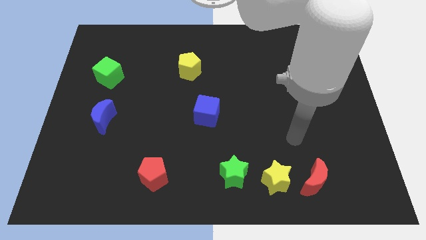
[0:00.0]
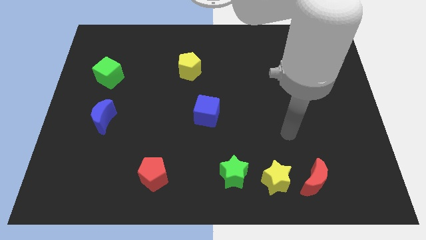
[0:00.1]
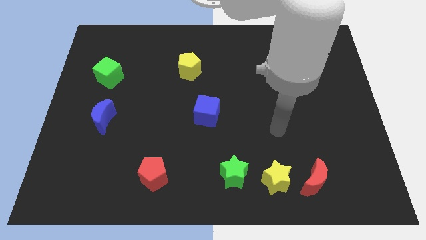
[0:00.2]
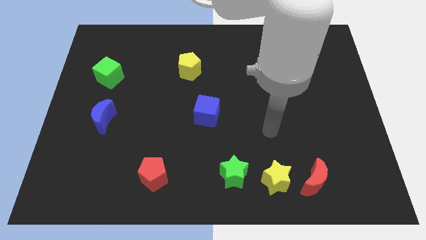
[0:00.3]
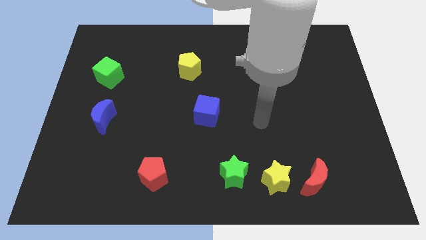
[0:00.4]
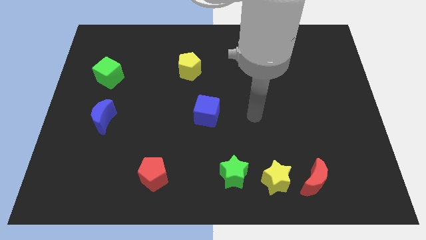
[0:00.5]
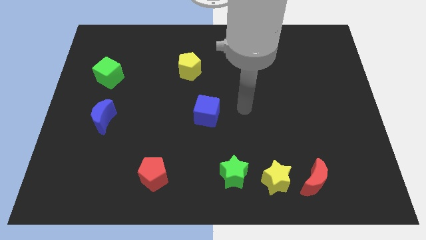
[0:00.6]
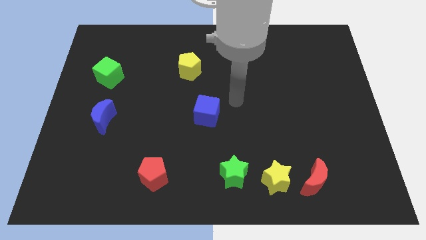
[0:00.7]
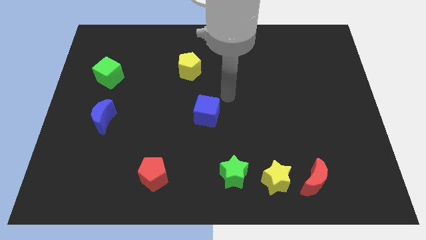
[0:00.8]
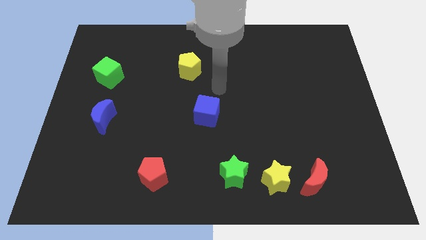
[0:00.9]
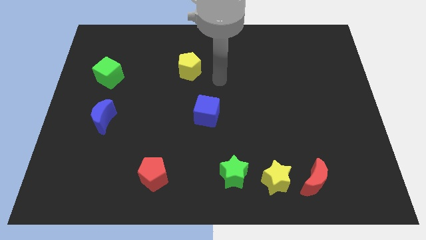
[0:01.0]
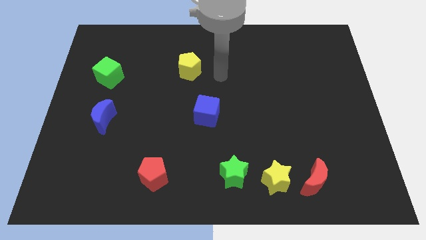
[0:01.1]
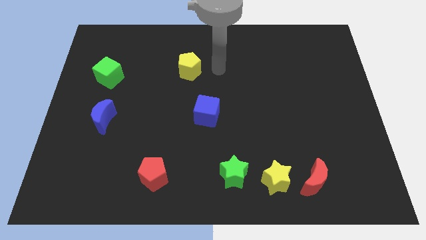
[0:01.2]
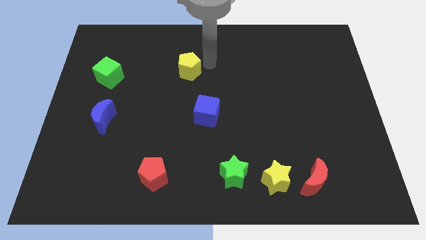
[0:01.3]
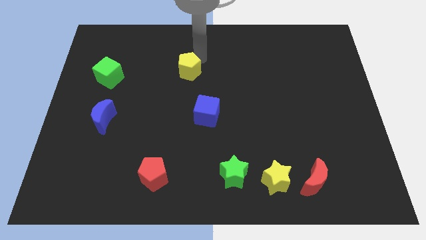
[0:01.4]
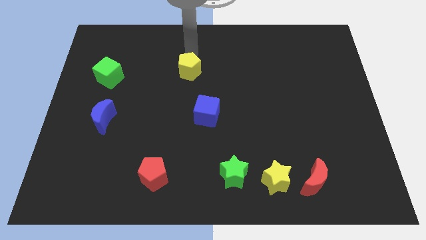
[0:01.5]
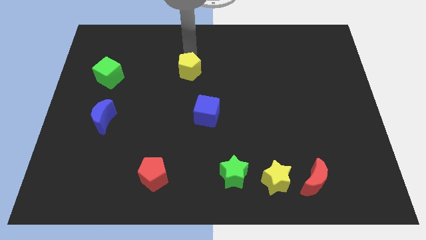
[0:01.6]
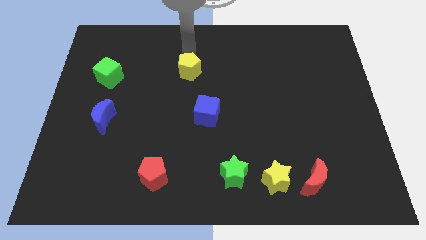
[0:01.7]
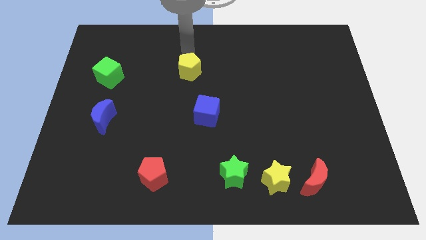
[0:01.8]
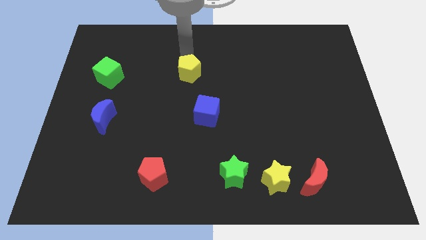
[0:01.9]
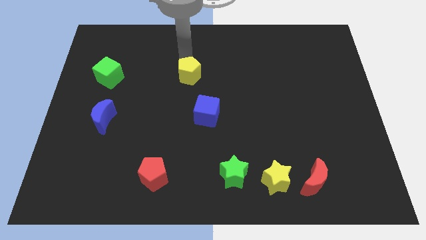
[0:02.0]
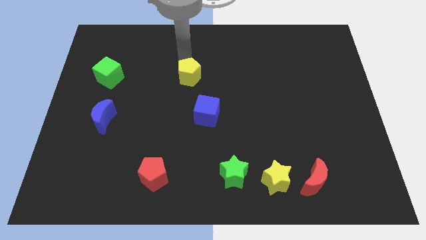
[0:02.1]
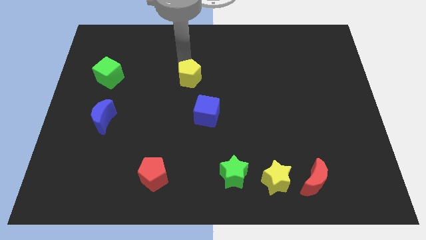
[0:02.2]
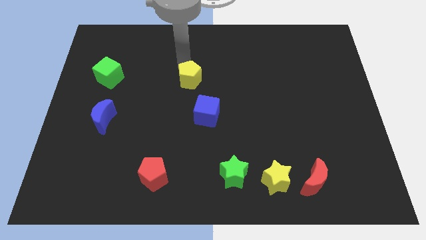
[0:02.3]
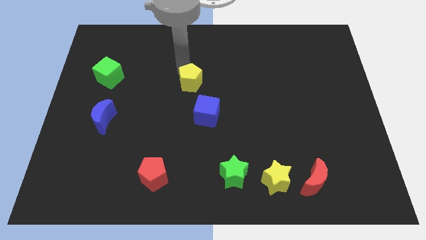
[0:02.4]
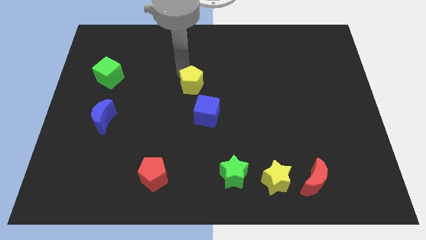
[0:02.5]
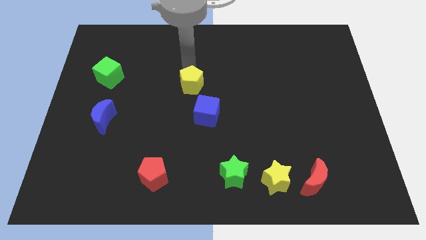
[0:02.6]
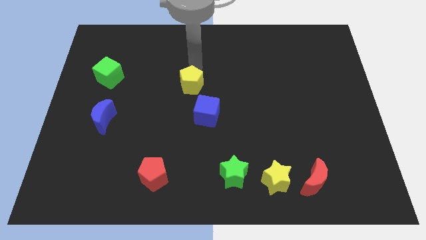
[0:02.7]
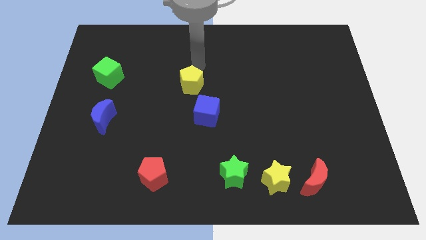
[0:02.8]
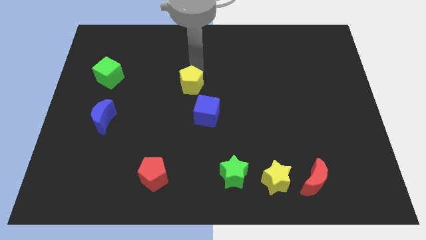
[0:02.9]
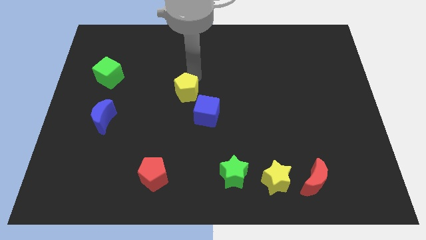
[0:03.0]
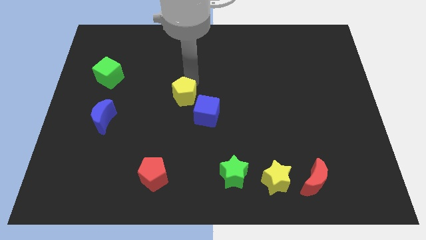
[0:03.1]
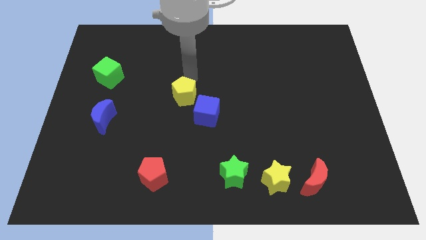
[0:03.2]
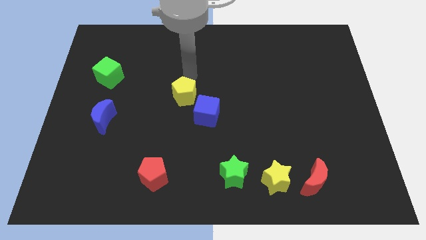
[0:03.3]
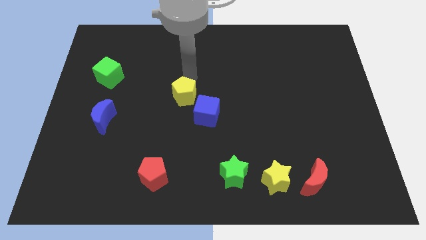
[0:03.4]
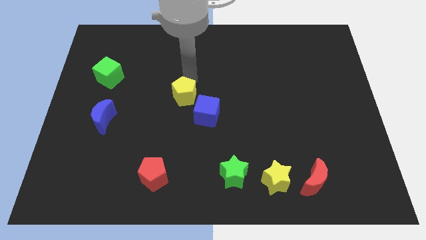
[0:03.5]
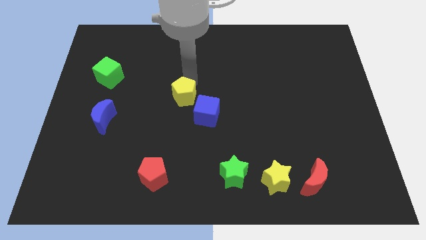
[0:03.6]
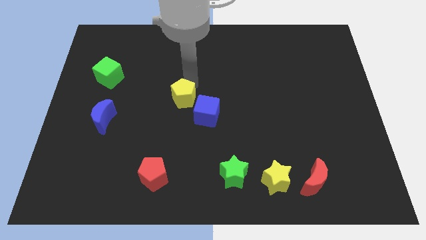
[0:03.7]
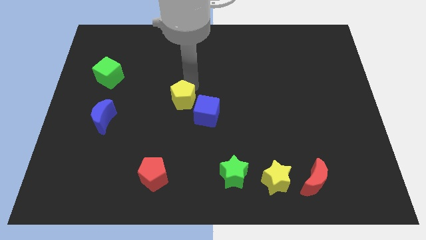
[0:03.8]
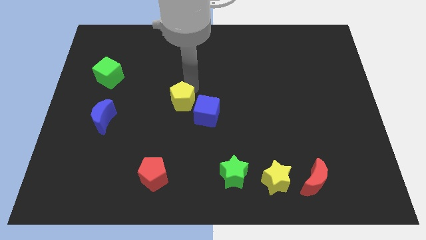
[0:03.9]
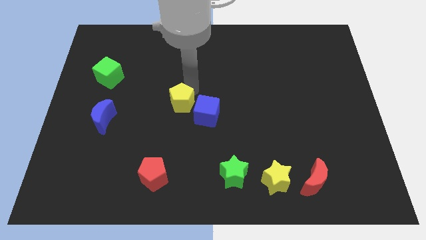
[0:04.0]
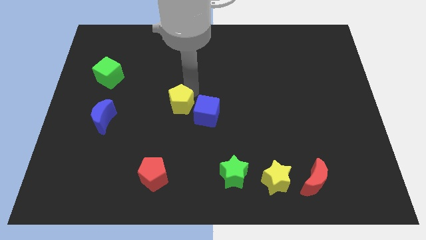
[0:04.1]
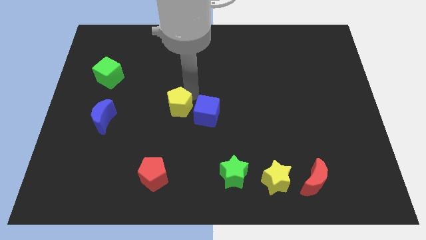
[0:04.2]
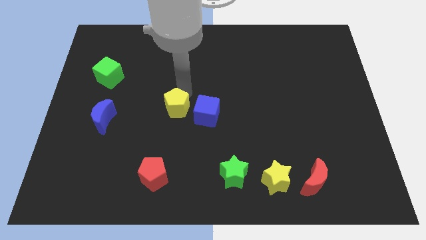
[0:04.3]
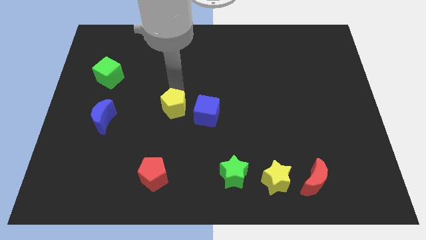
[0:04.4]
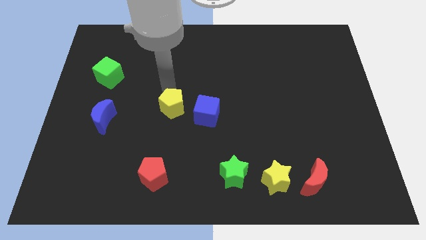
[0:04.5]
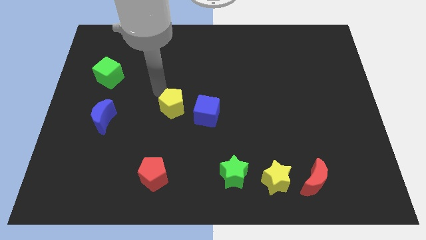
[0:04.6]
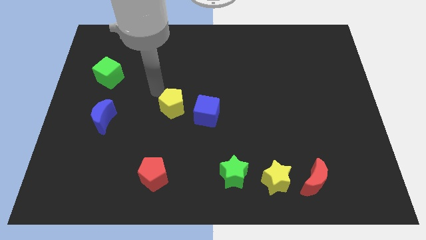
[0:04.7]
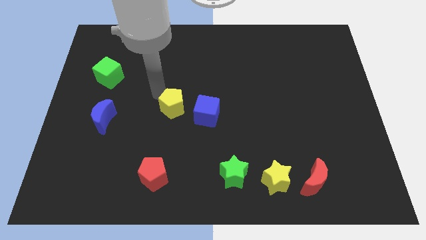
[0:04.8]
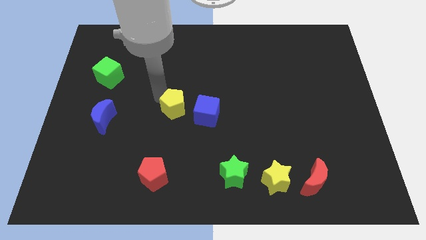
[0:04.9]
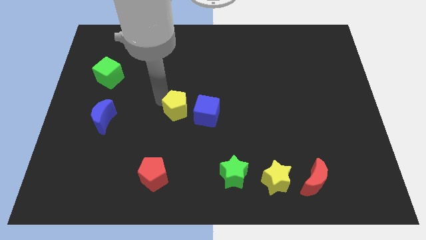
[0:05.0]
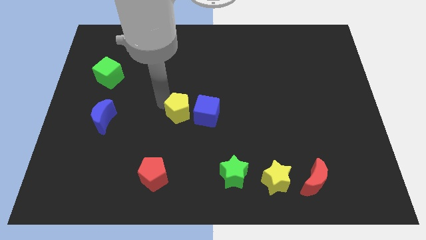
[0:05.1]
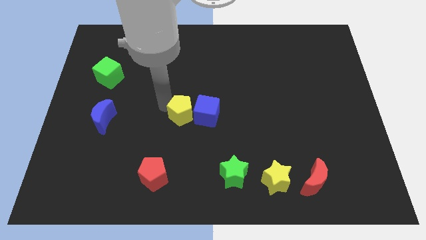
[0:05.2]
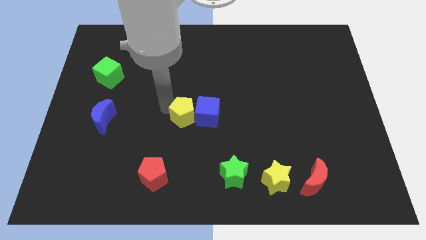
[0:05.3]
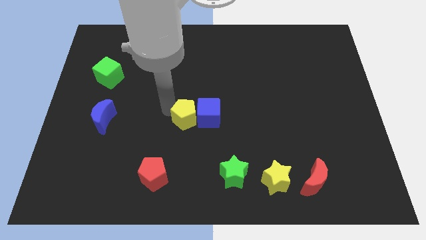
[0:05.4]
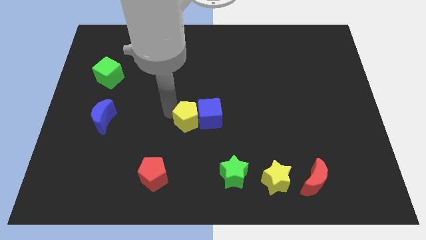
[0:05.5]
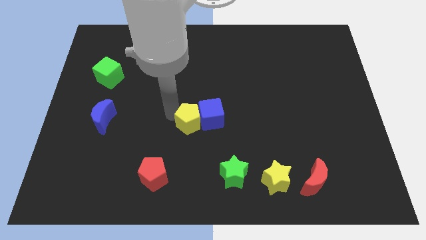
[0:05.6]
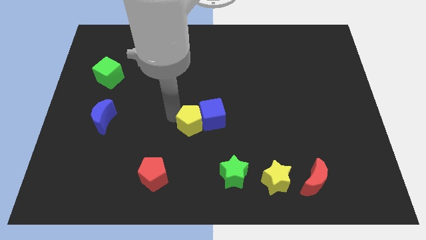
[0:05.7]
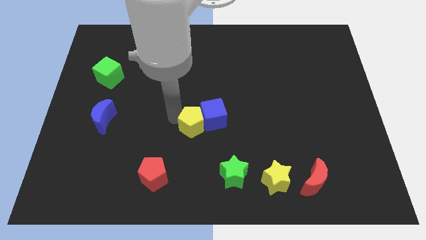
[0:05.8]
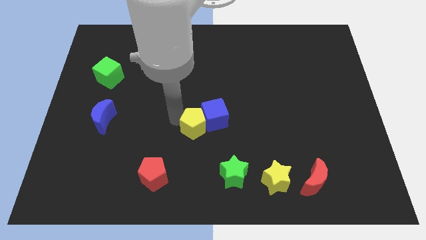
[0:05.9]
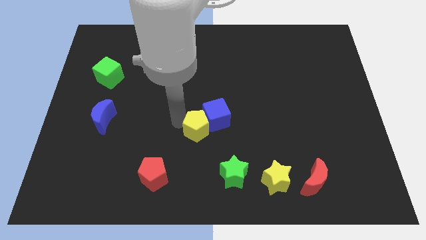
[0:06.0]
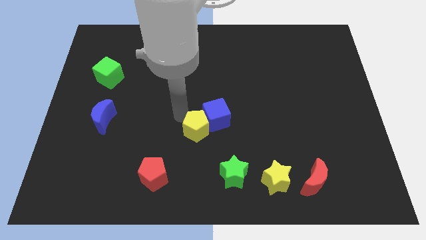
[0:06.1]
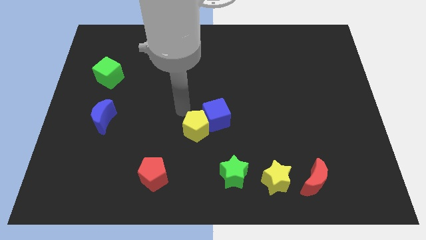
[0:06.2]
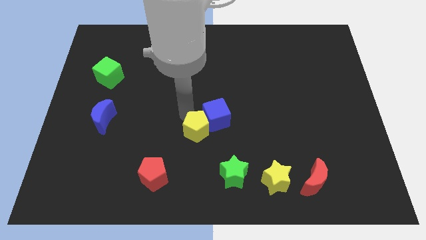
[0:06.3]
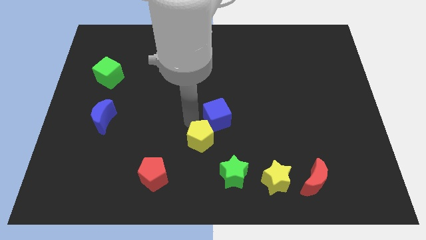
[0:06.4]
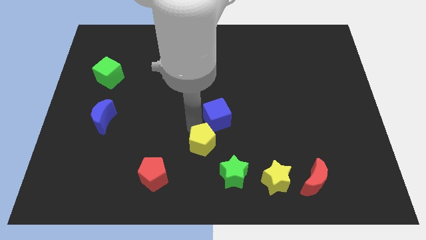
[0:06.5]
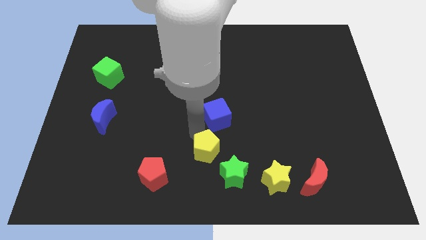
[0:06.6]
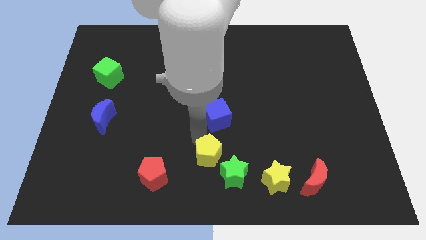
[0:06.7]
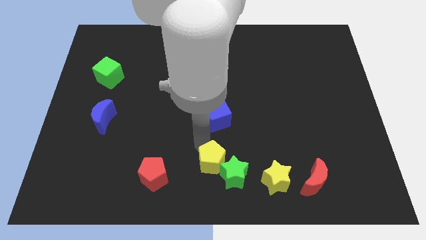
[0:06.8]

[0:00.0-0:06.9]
move the yellow pentagon to the green star
